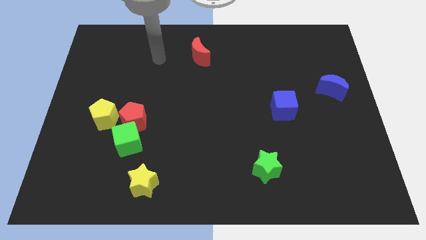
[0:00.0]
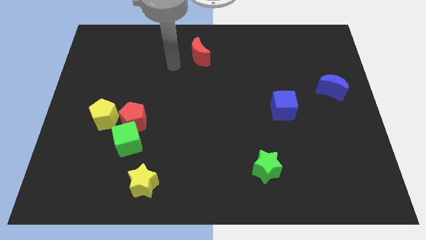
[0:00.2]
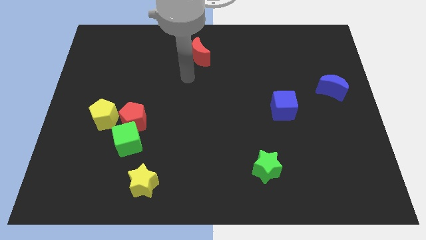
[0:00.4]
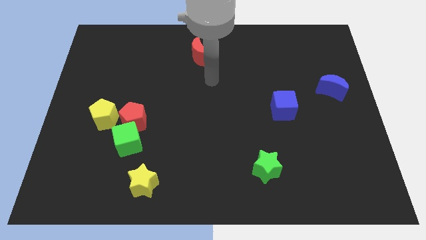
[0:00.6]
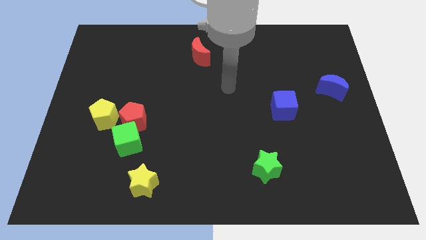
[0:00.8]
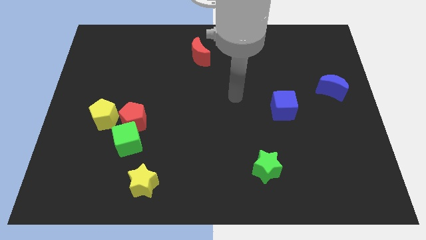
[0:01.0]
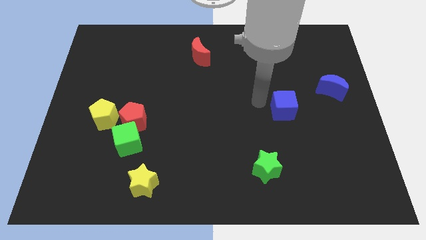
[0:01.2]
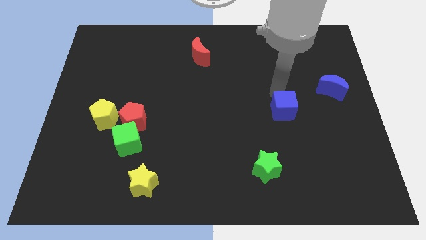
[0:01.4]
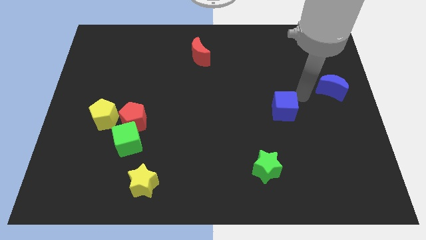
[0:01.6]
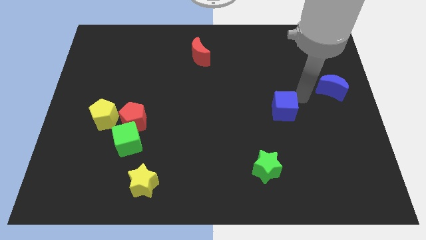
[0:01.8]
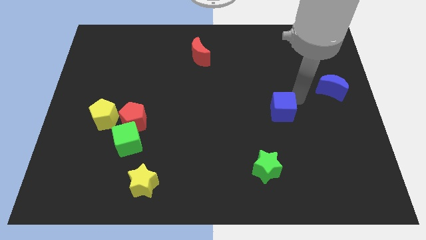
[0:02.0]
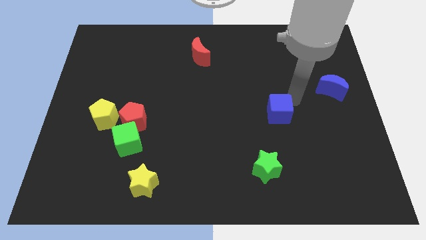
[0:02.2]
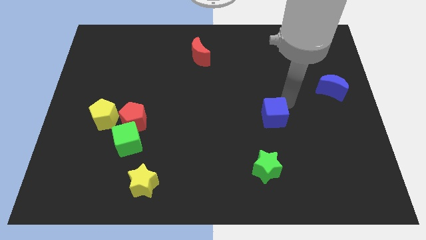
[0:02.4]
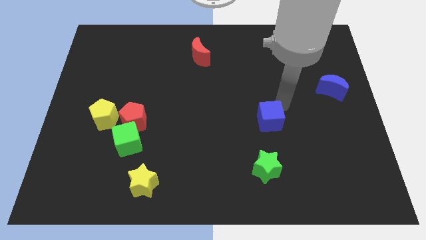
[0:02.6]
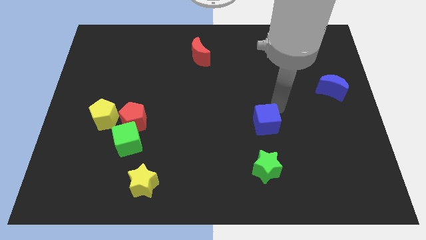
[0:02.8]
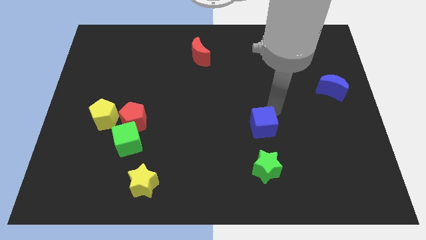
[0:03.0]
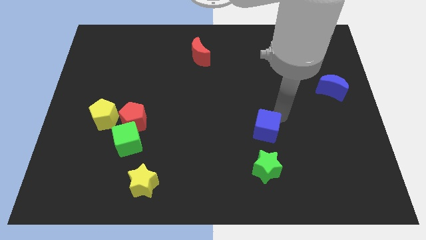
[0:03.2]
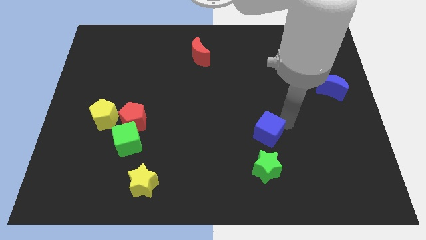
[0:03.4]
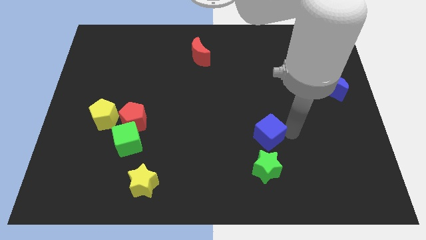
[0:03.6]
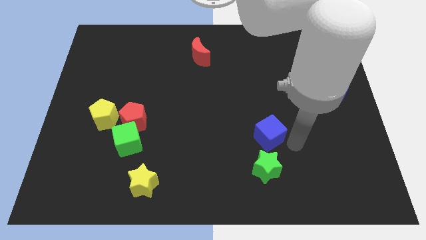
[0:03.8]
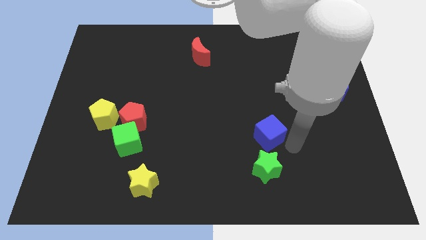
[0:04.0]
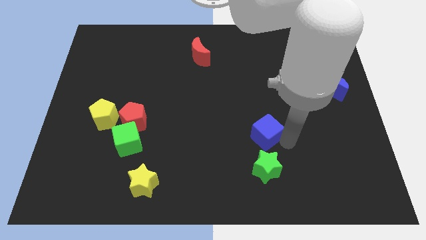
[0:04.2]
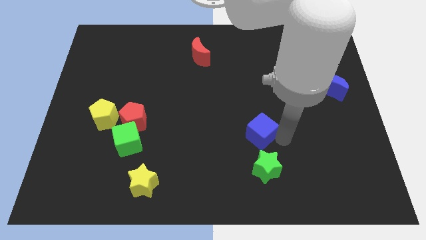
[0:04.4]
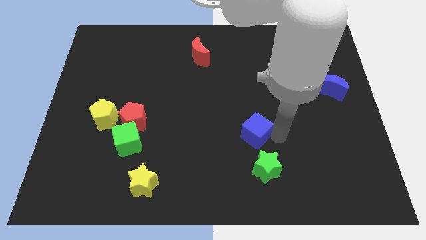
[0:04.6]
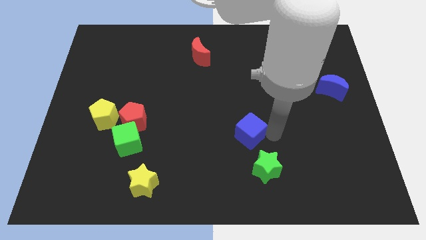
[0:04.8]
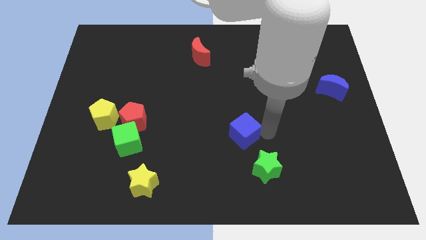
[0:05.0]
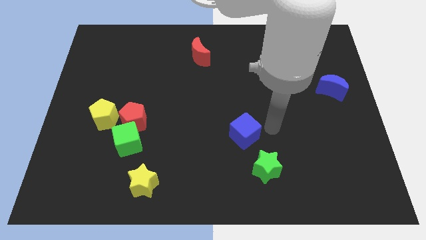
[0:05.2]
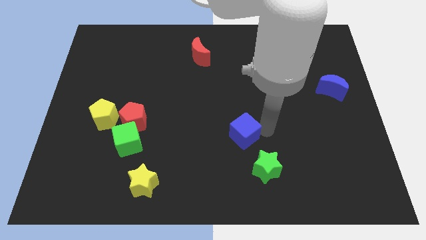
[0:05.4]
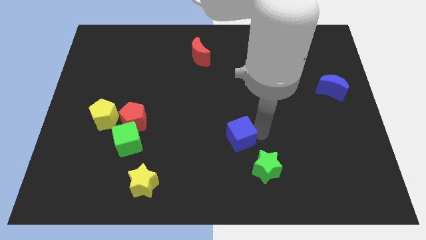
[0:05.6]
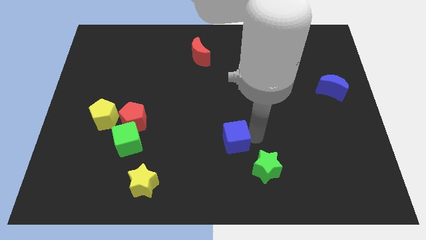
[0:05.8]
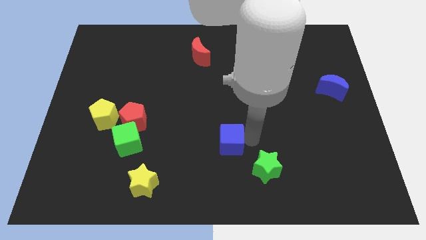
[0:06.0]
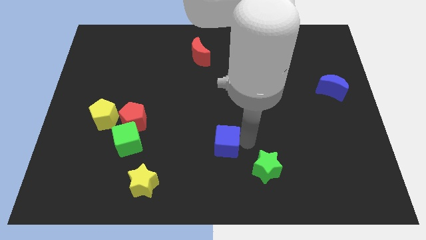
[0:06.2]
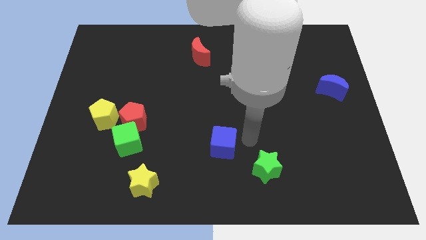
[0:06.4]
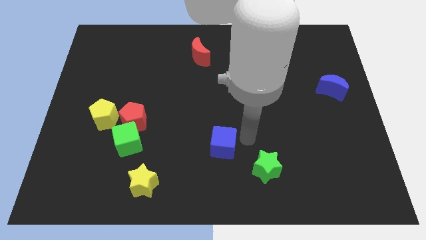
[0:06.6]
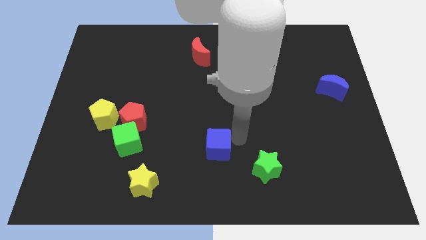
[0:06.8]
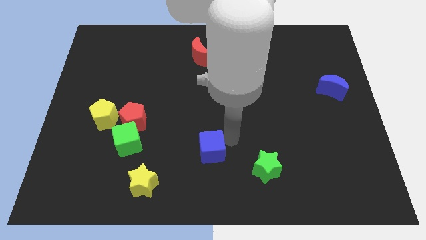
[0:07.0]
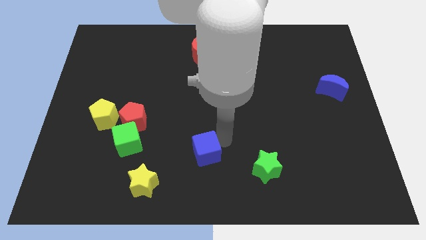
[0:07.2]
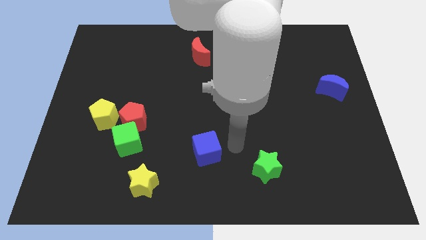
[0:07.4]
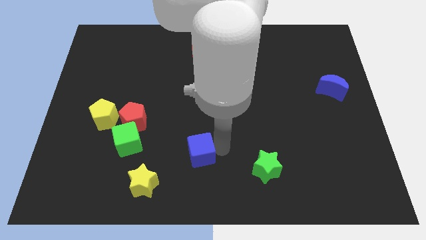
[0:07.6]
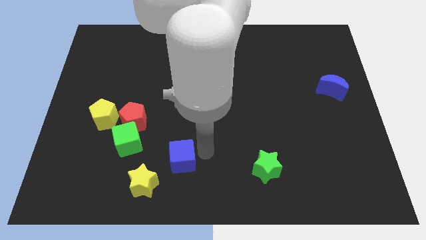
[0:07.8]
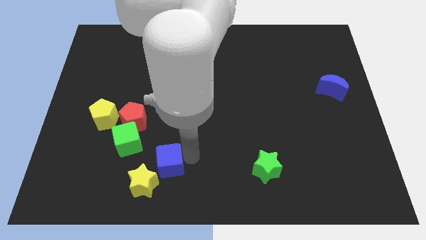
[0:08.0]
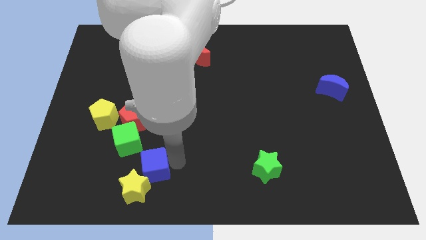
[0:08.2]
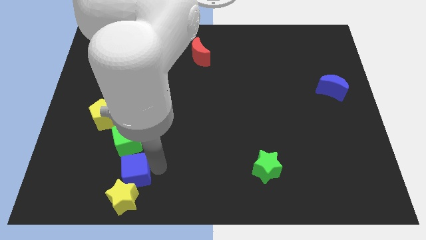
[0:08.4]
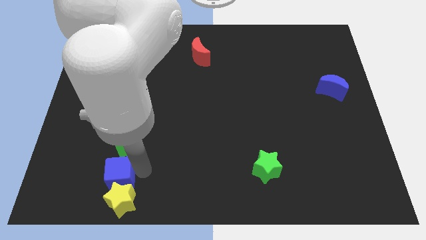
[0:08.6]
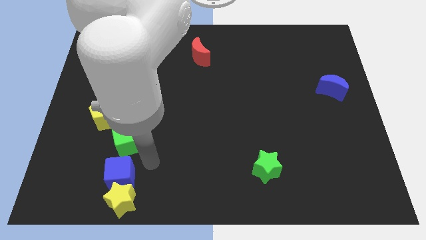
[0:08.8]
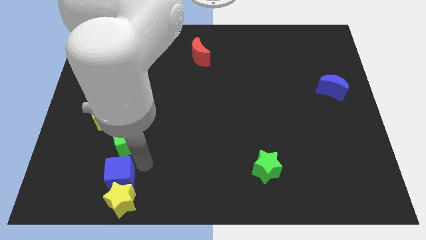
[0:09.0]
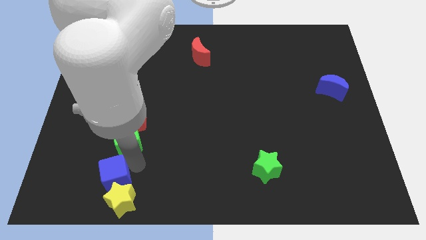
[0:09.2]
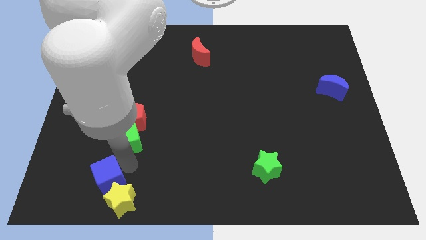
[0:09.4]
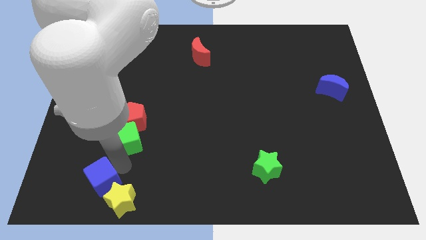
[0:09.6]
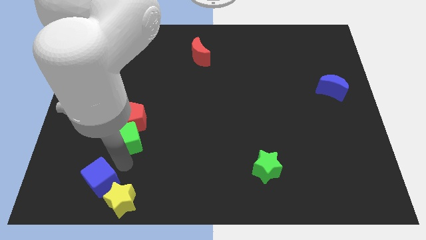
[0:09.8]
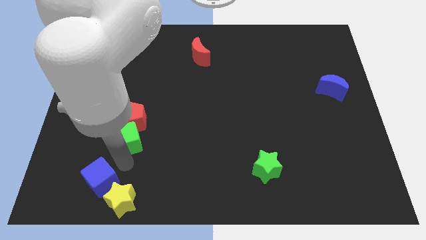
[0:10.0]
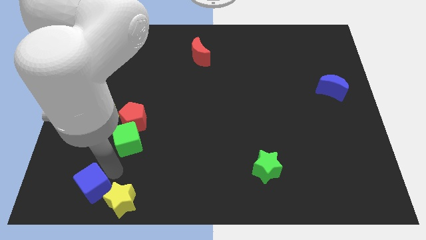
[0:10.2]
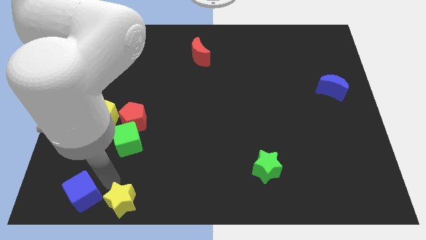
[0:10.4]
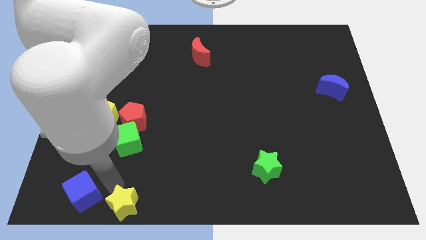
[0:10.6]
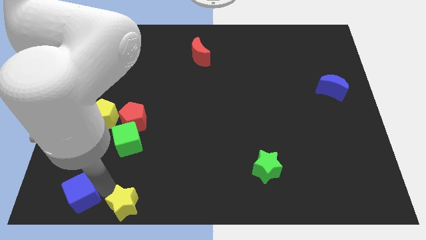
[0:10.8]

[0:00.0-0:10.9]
slide the blue cube to the bottom left of the board

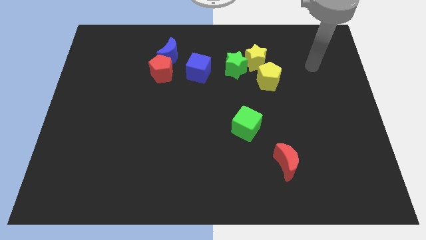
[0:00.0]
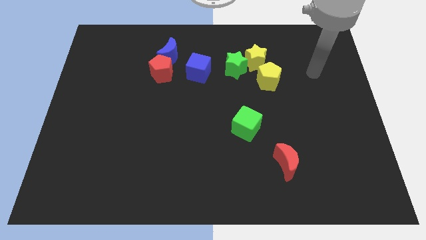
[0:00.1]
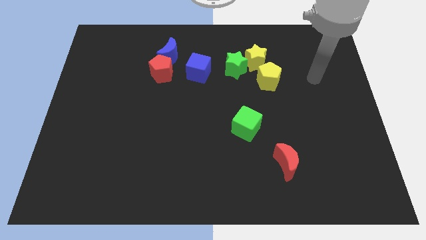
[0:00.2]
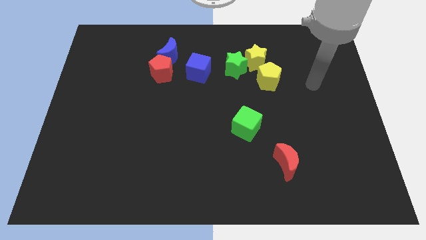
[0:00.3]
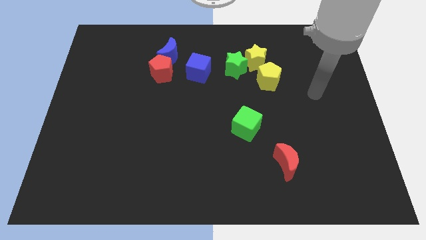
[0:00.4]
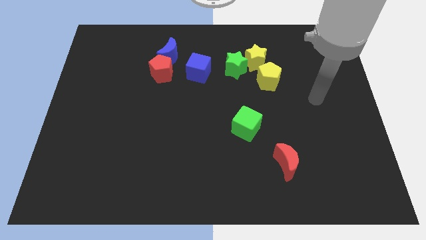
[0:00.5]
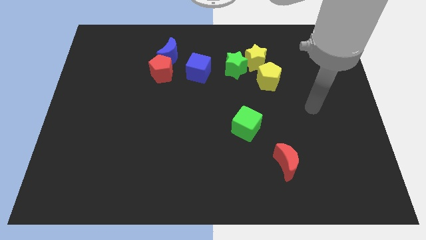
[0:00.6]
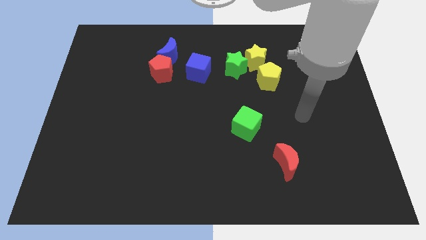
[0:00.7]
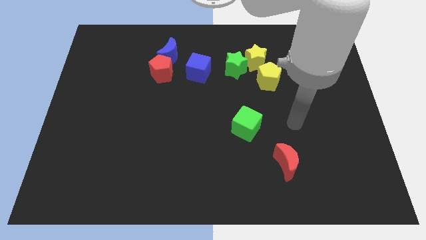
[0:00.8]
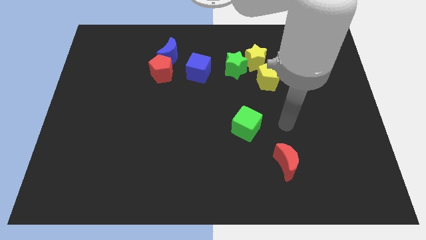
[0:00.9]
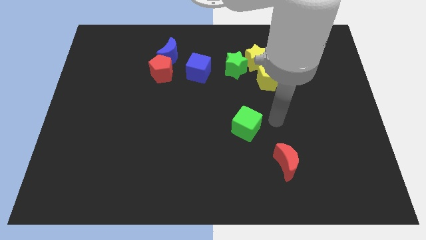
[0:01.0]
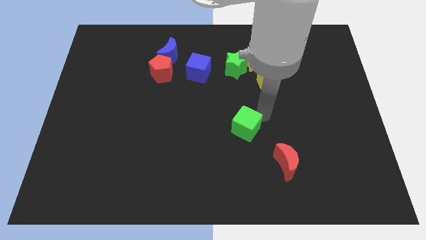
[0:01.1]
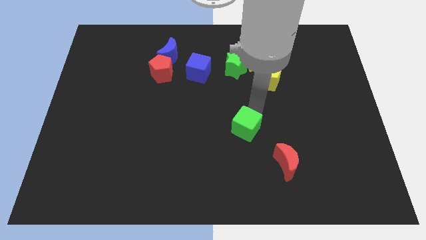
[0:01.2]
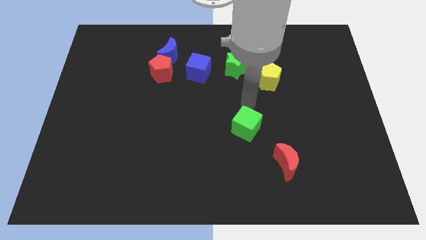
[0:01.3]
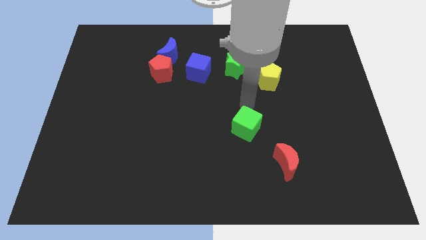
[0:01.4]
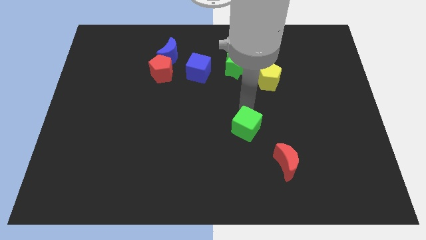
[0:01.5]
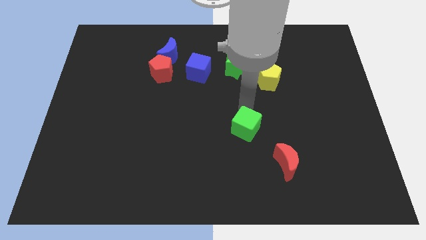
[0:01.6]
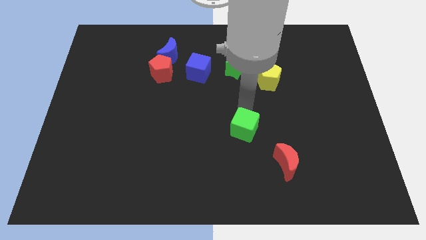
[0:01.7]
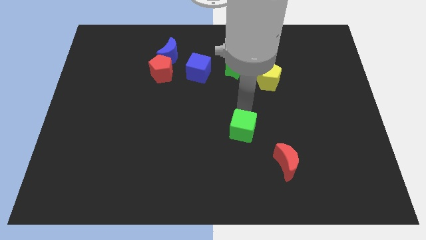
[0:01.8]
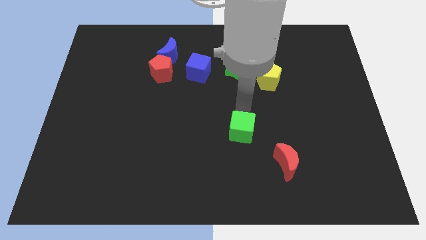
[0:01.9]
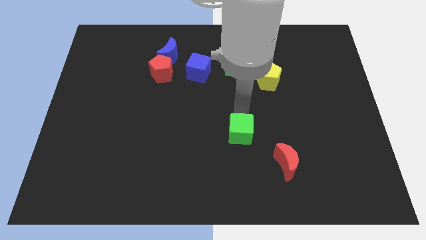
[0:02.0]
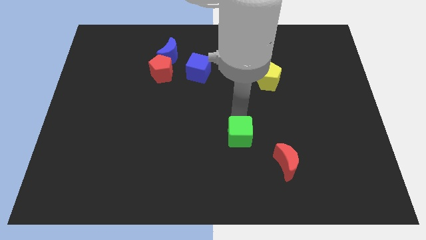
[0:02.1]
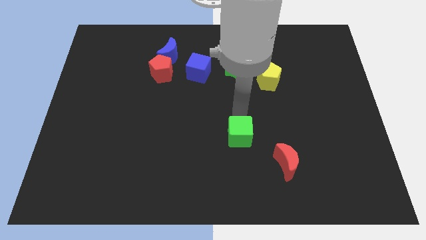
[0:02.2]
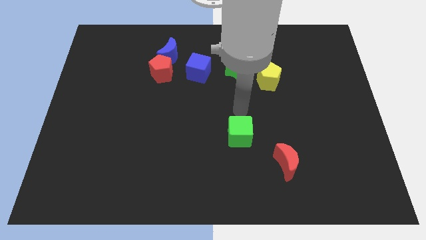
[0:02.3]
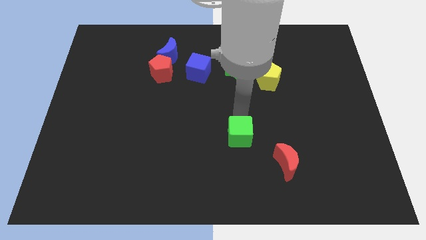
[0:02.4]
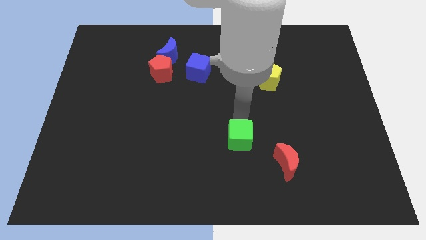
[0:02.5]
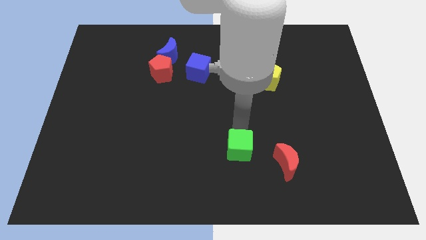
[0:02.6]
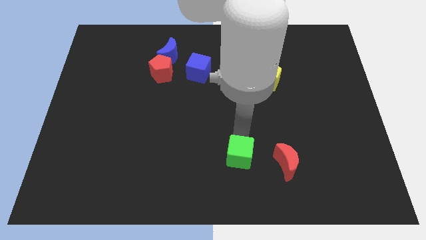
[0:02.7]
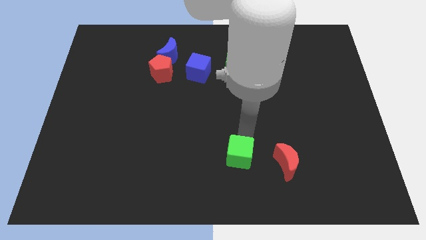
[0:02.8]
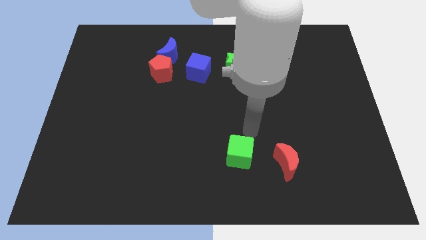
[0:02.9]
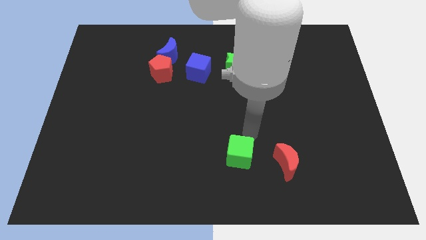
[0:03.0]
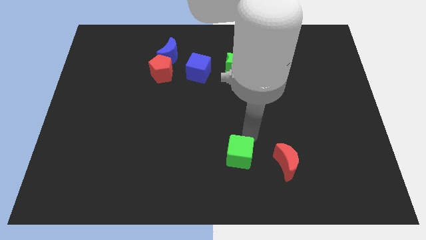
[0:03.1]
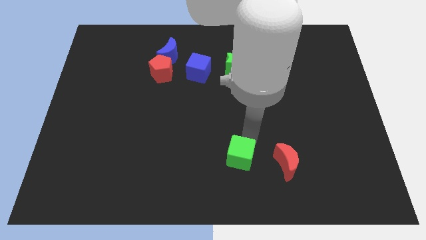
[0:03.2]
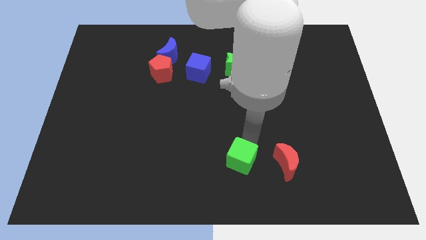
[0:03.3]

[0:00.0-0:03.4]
push the green cube to the bottom side
